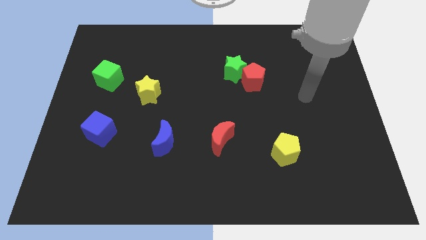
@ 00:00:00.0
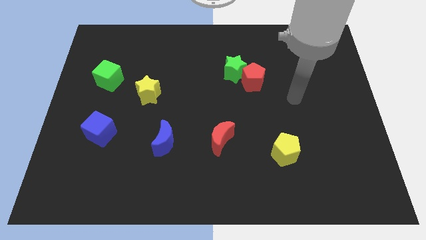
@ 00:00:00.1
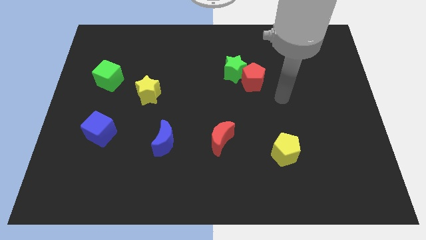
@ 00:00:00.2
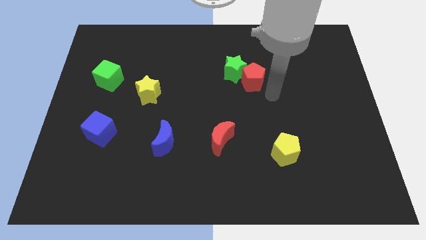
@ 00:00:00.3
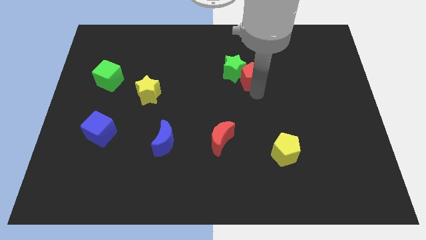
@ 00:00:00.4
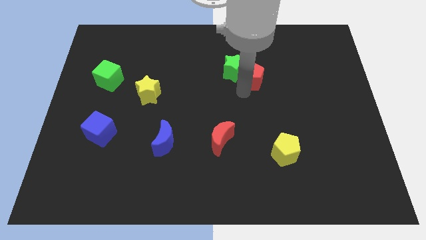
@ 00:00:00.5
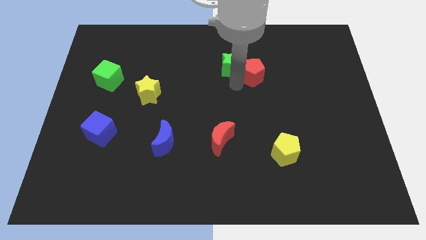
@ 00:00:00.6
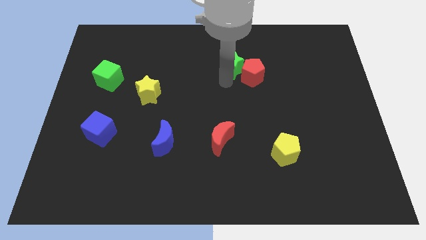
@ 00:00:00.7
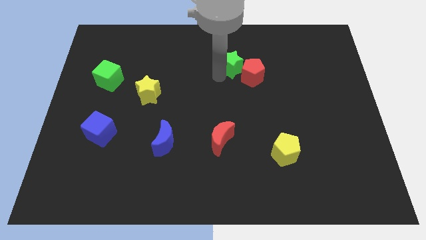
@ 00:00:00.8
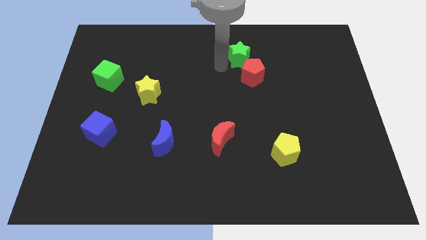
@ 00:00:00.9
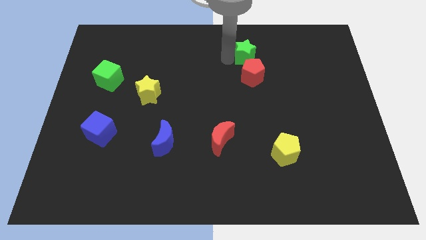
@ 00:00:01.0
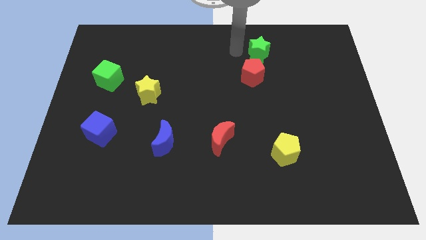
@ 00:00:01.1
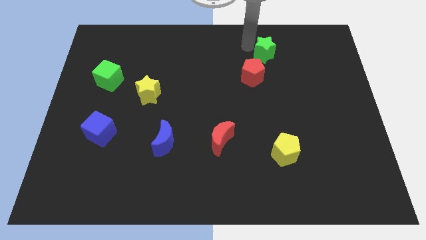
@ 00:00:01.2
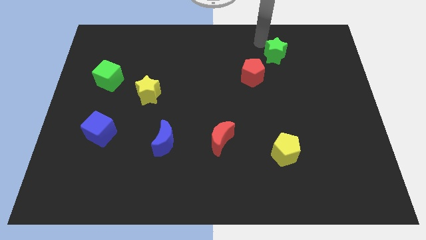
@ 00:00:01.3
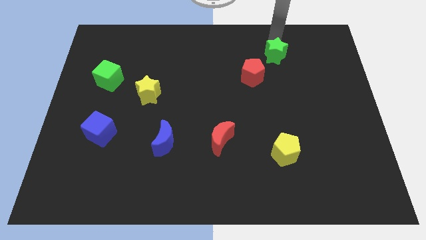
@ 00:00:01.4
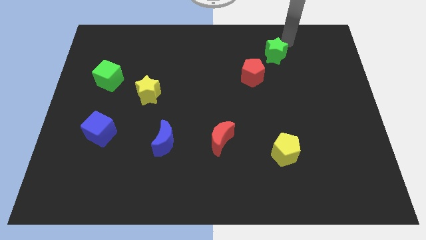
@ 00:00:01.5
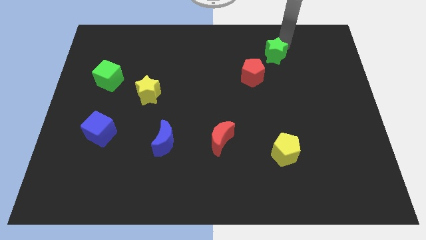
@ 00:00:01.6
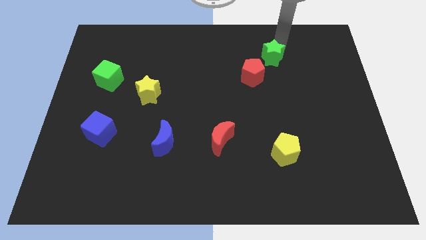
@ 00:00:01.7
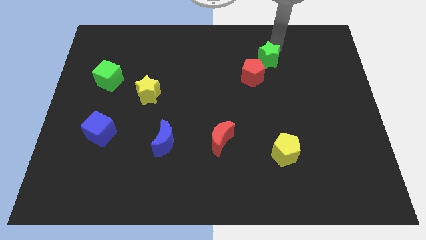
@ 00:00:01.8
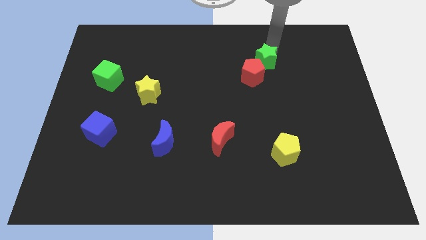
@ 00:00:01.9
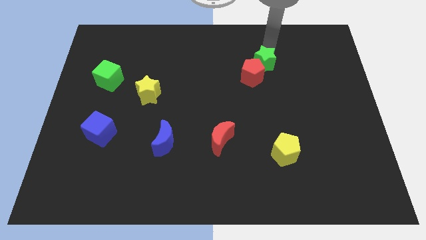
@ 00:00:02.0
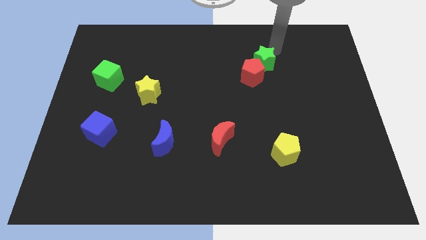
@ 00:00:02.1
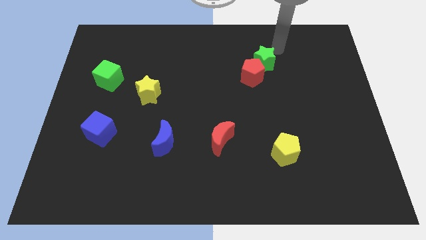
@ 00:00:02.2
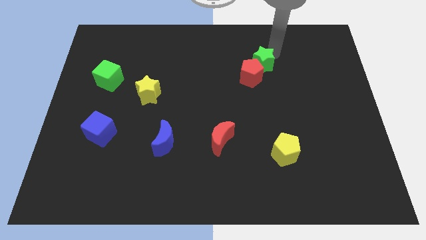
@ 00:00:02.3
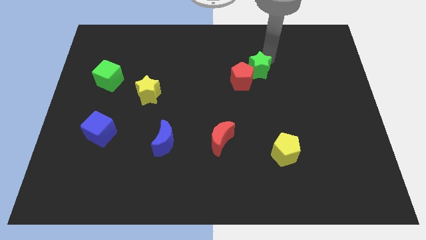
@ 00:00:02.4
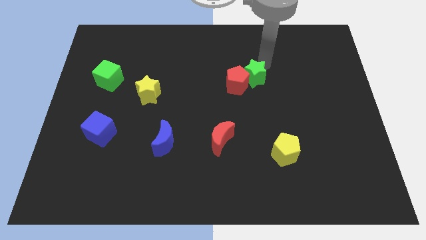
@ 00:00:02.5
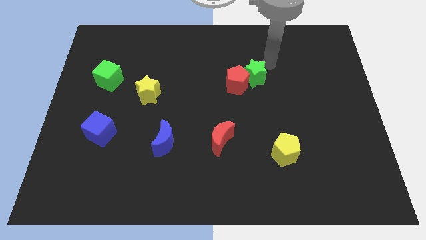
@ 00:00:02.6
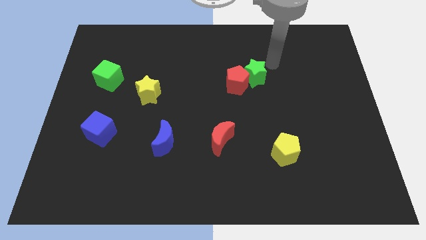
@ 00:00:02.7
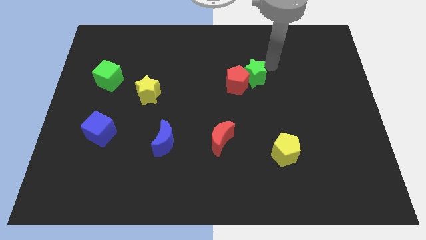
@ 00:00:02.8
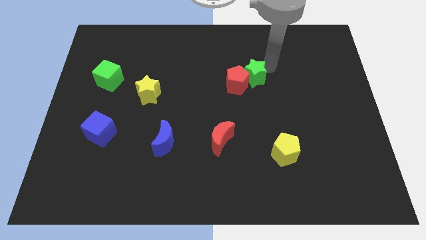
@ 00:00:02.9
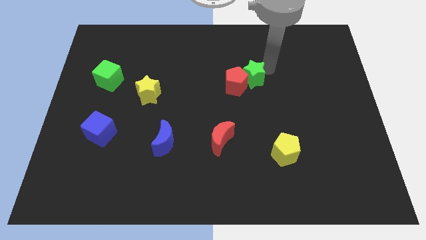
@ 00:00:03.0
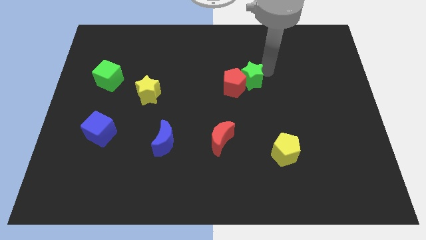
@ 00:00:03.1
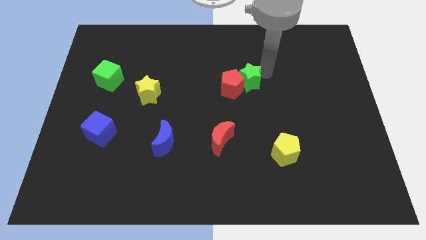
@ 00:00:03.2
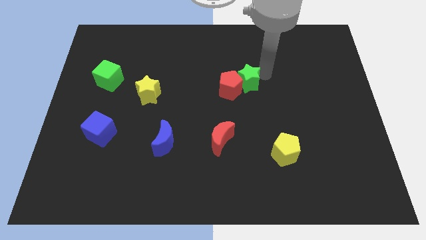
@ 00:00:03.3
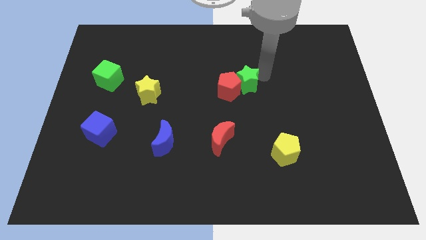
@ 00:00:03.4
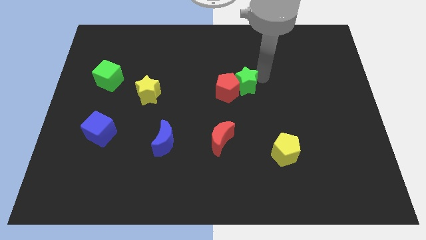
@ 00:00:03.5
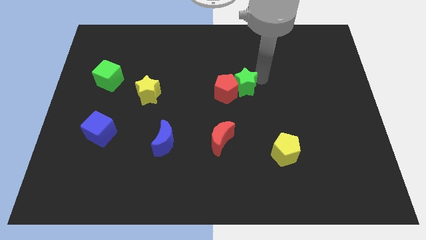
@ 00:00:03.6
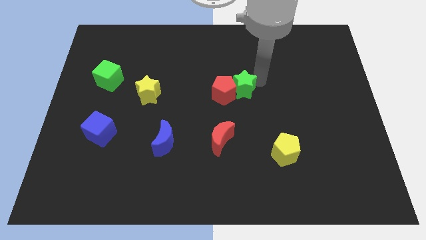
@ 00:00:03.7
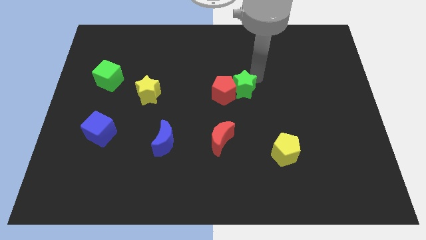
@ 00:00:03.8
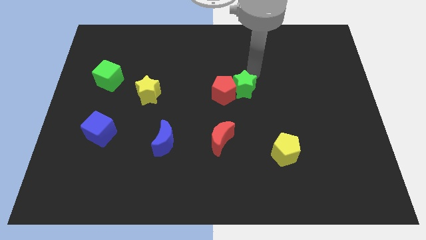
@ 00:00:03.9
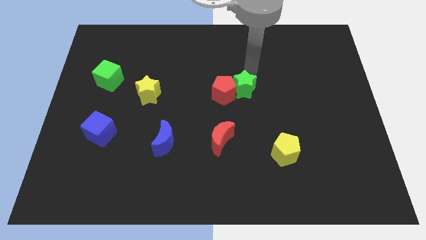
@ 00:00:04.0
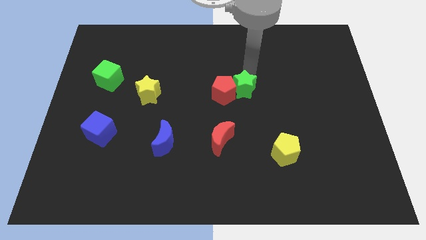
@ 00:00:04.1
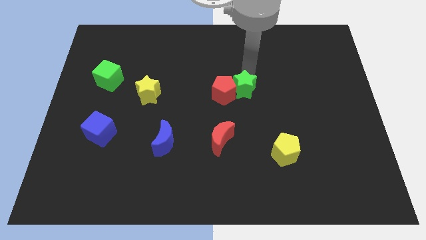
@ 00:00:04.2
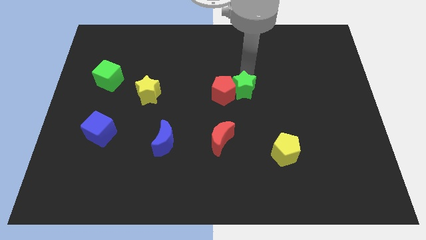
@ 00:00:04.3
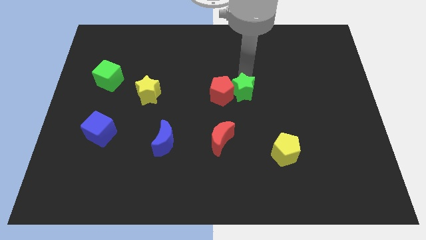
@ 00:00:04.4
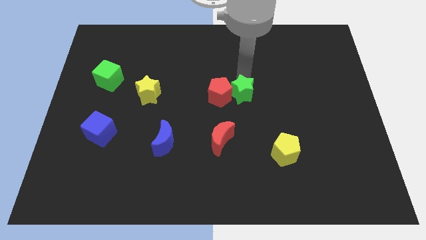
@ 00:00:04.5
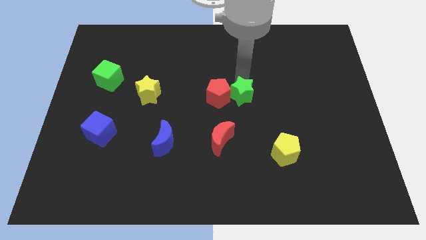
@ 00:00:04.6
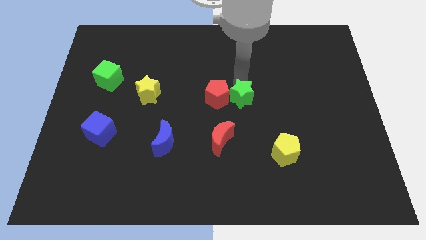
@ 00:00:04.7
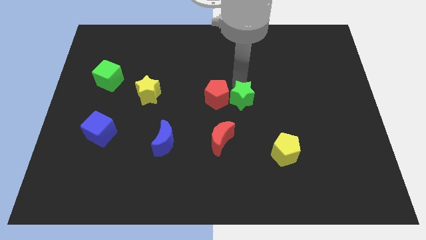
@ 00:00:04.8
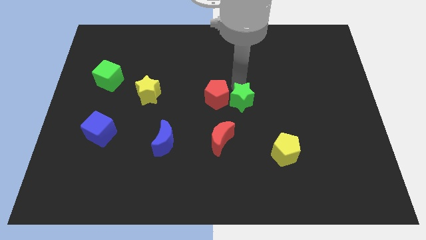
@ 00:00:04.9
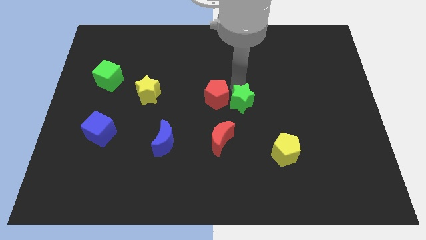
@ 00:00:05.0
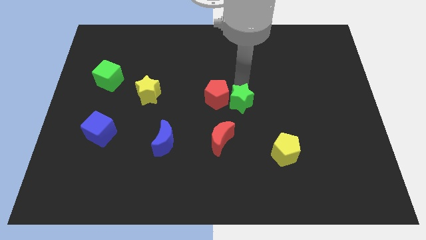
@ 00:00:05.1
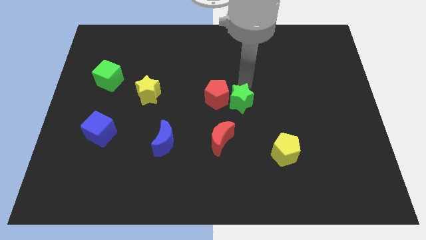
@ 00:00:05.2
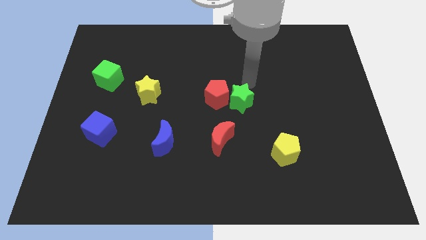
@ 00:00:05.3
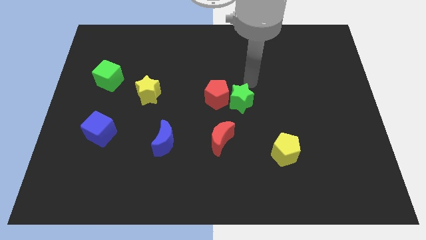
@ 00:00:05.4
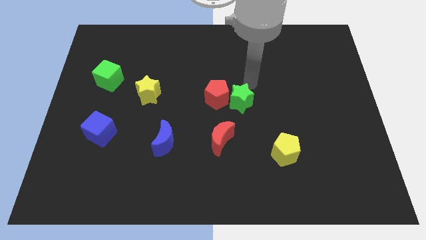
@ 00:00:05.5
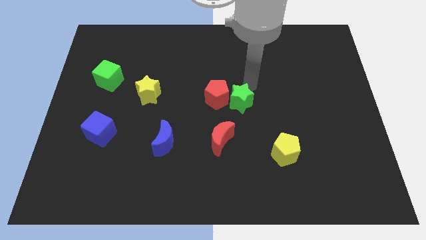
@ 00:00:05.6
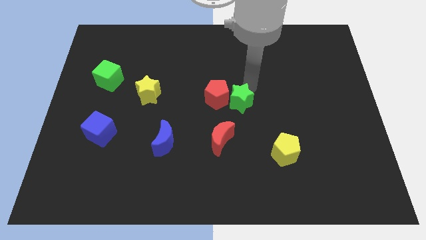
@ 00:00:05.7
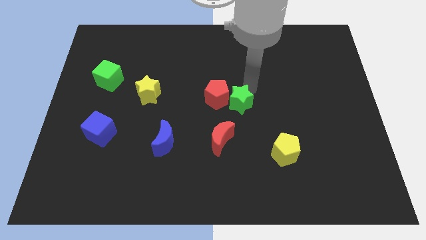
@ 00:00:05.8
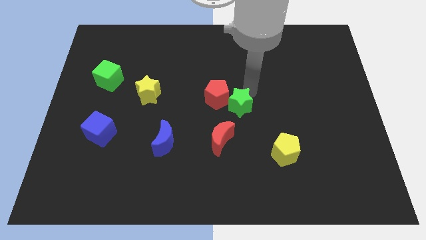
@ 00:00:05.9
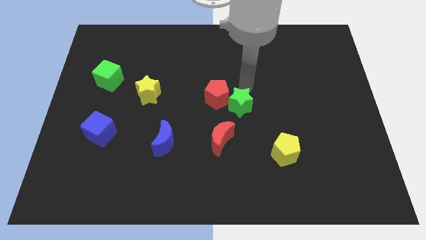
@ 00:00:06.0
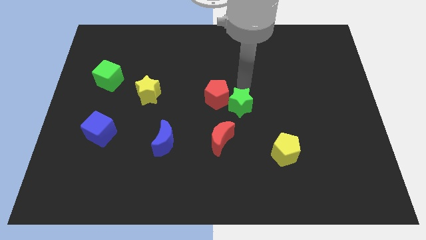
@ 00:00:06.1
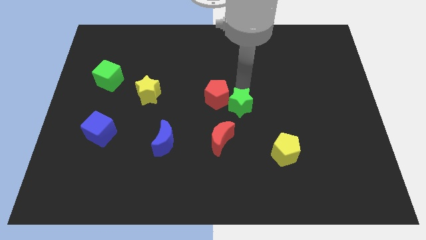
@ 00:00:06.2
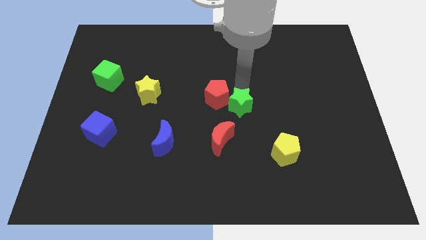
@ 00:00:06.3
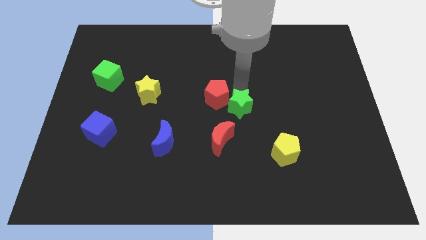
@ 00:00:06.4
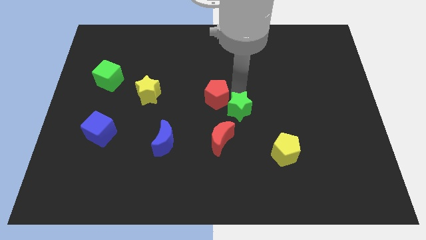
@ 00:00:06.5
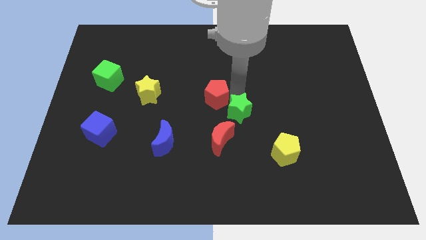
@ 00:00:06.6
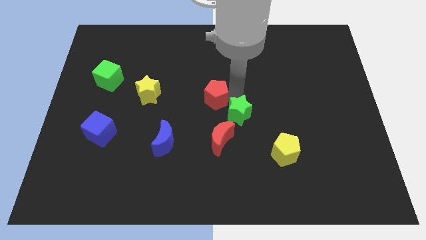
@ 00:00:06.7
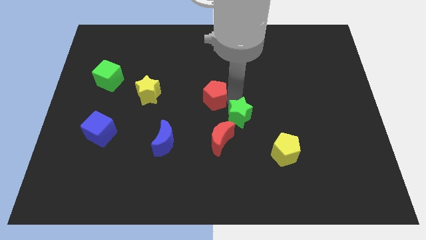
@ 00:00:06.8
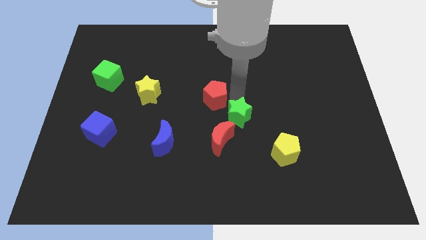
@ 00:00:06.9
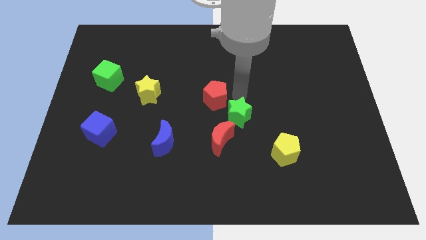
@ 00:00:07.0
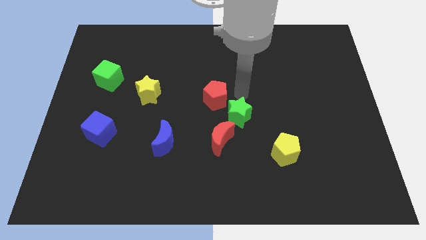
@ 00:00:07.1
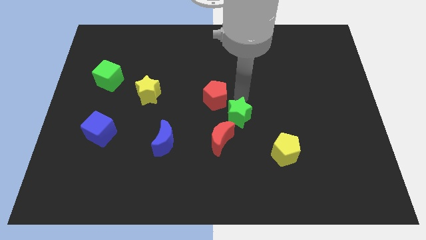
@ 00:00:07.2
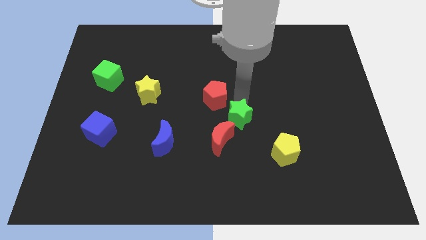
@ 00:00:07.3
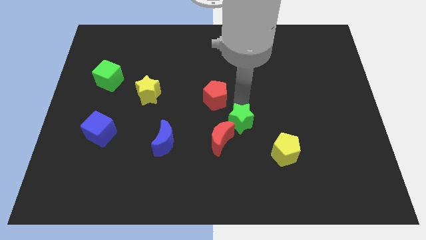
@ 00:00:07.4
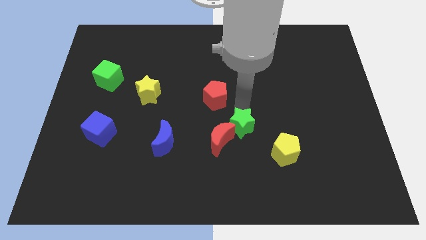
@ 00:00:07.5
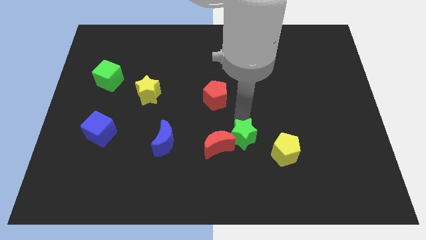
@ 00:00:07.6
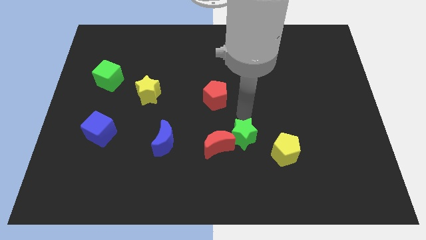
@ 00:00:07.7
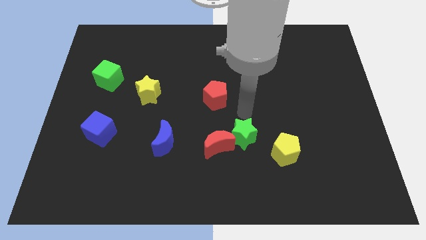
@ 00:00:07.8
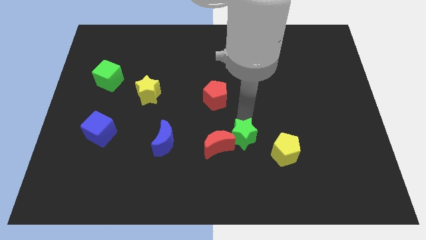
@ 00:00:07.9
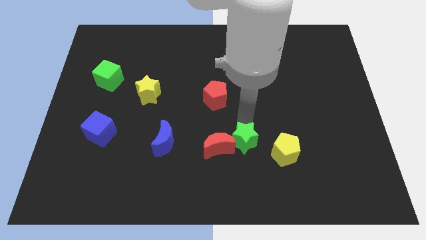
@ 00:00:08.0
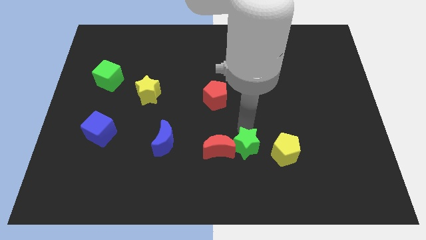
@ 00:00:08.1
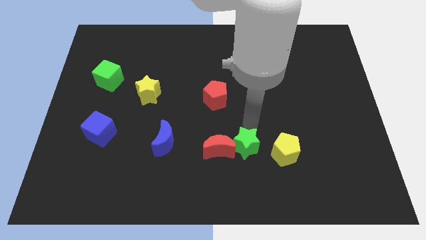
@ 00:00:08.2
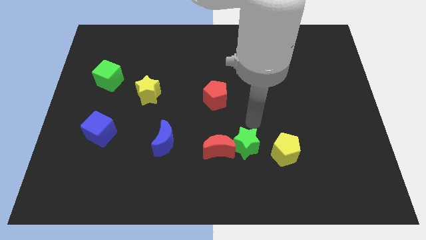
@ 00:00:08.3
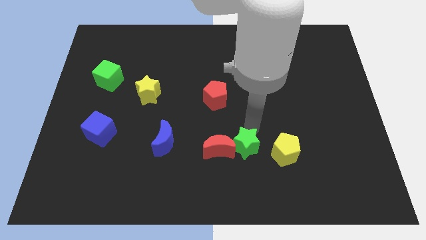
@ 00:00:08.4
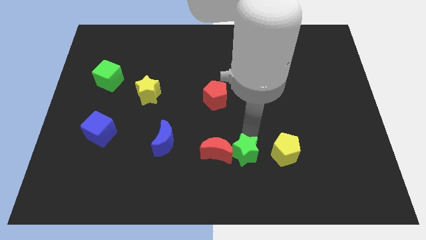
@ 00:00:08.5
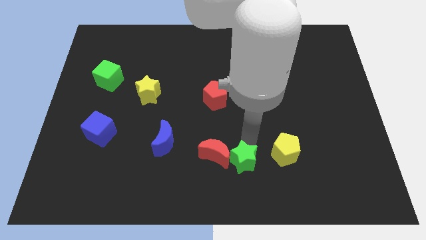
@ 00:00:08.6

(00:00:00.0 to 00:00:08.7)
put the green star to the bottom
